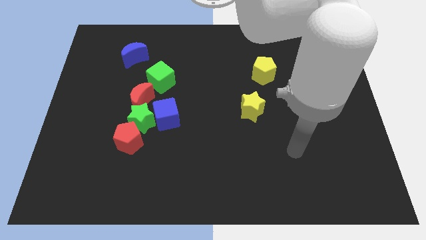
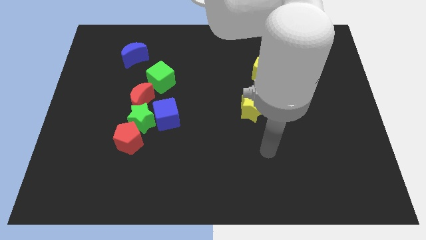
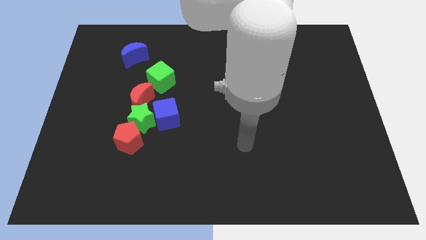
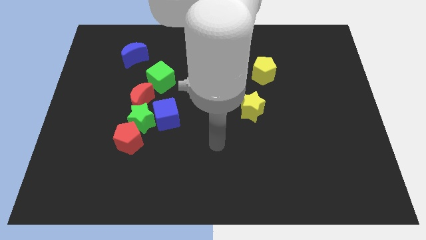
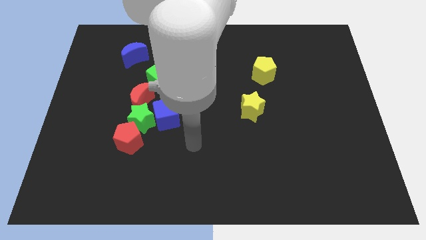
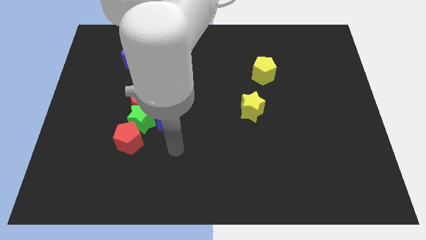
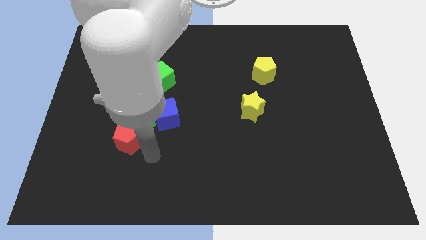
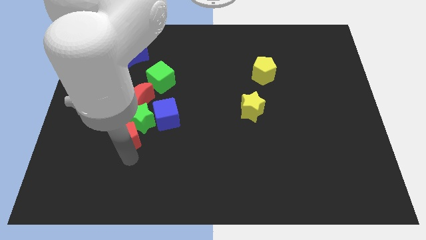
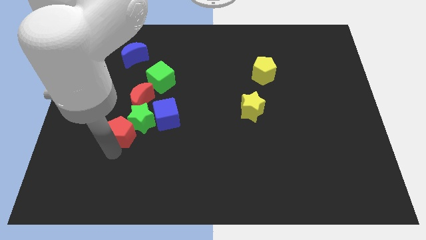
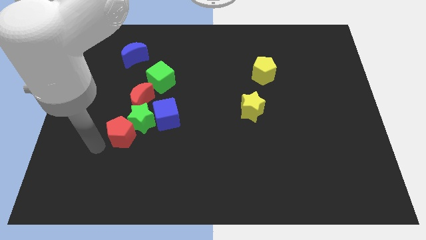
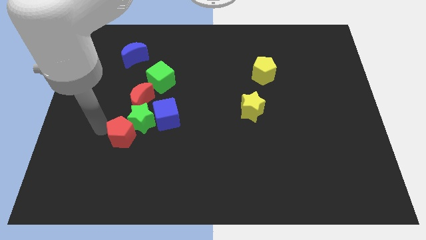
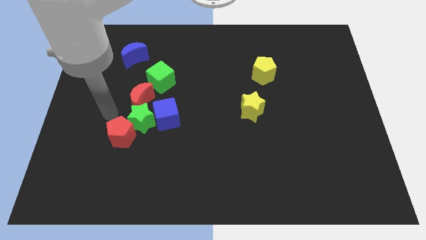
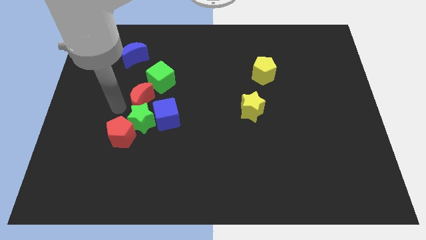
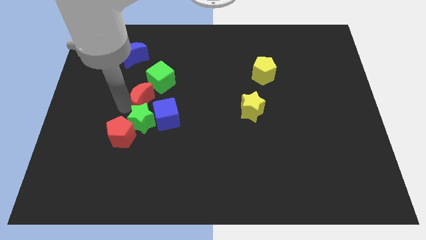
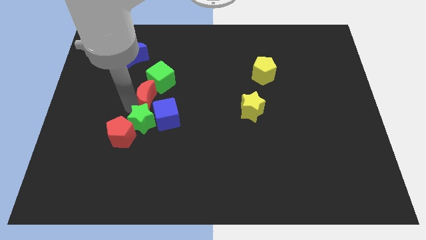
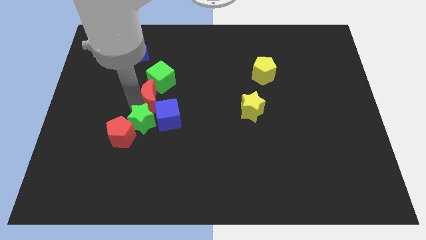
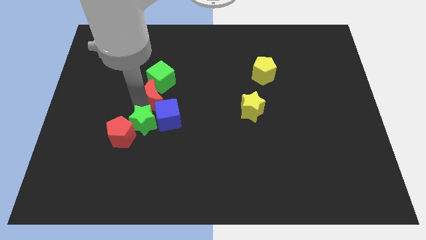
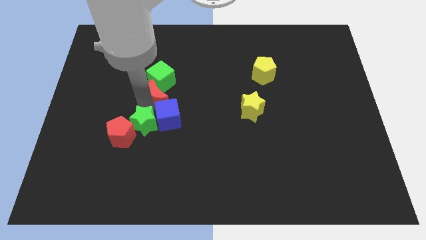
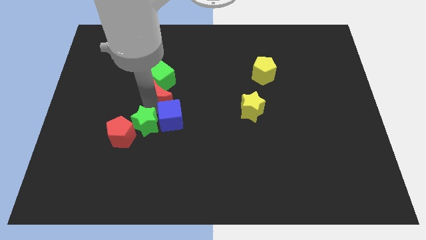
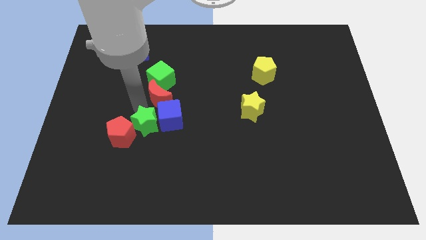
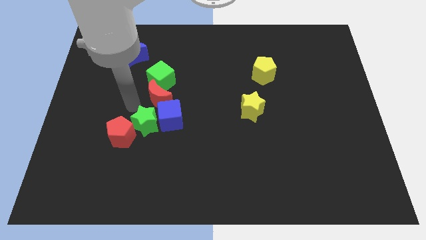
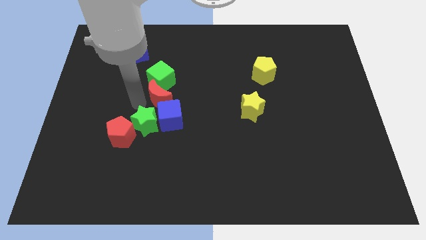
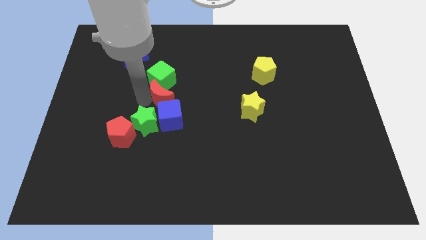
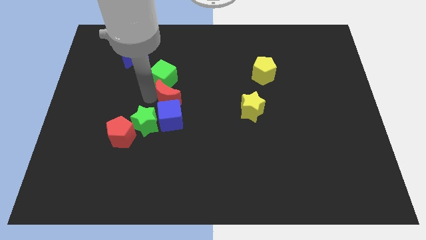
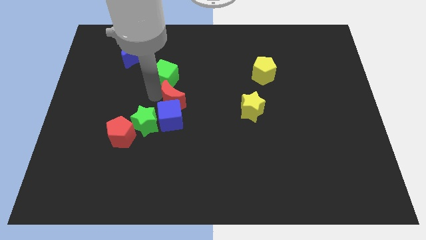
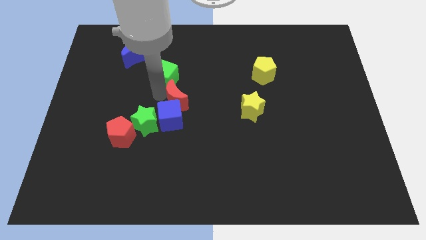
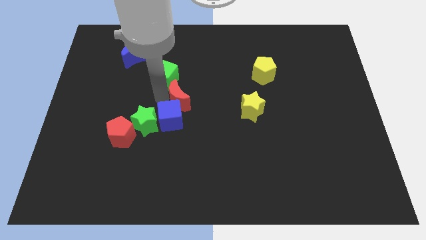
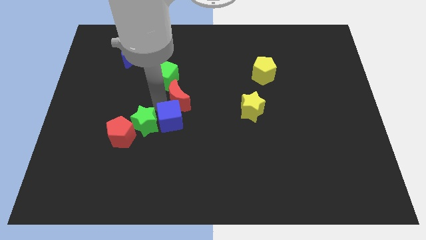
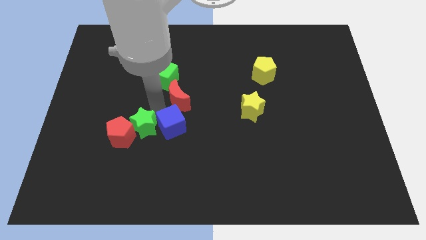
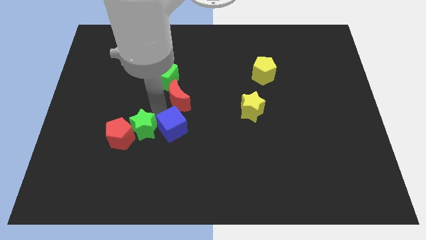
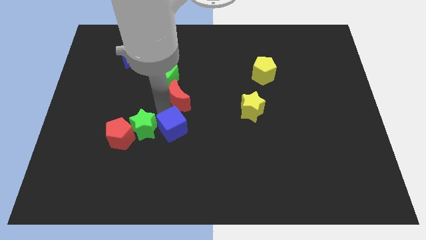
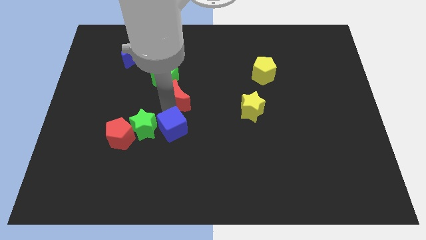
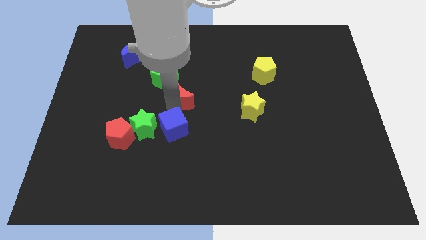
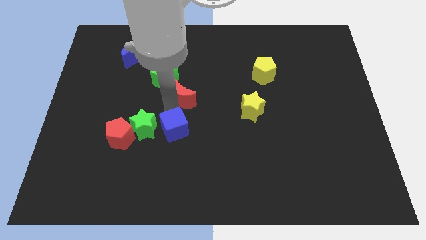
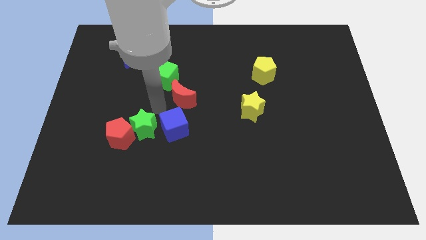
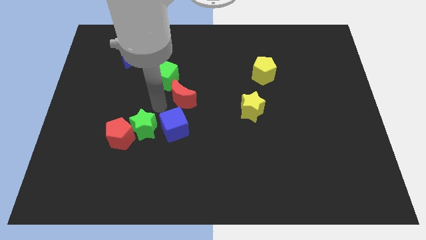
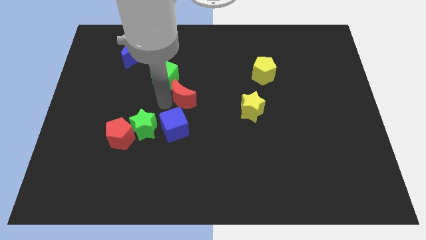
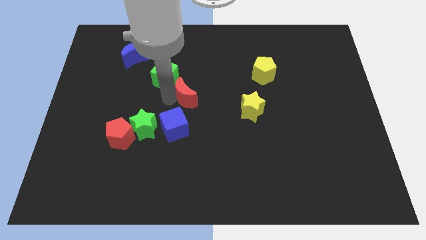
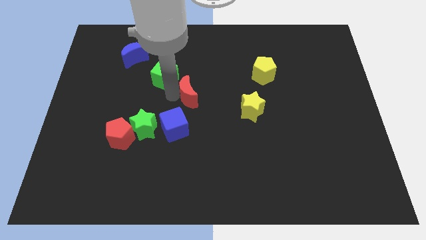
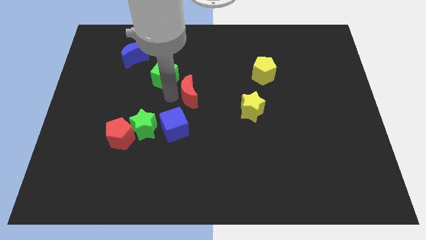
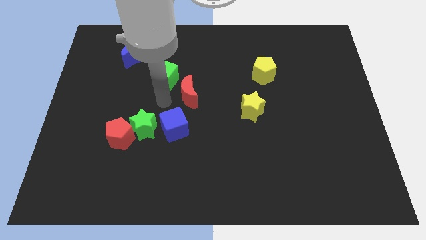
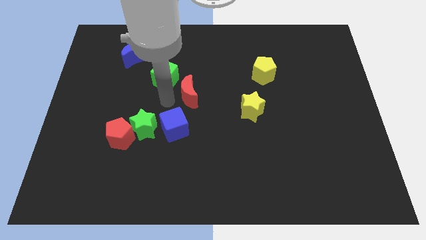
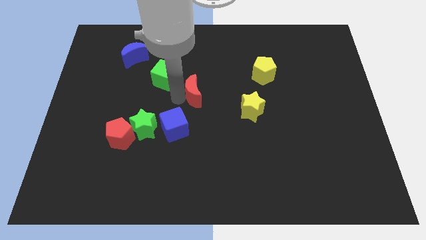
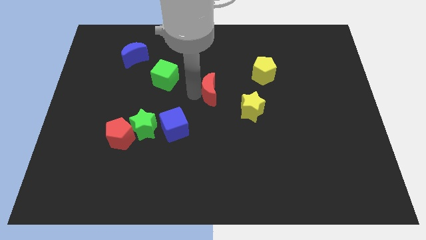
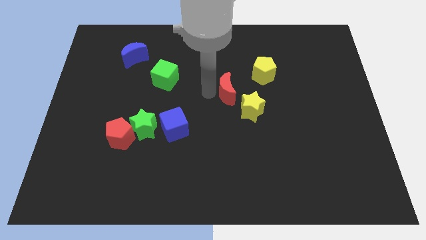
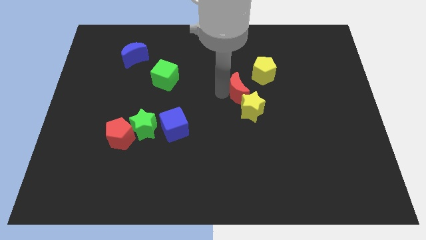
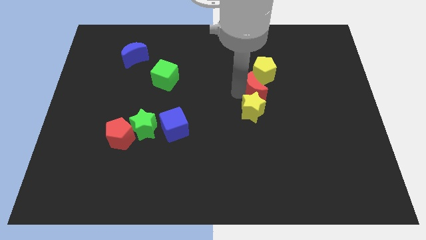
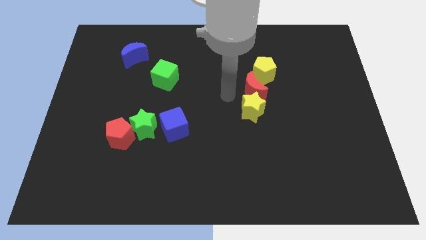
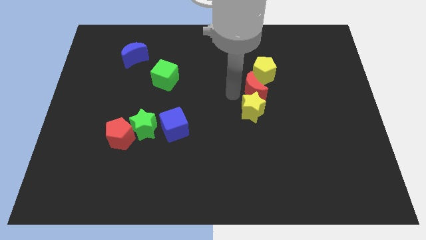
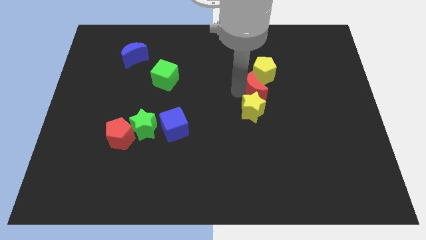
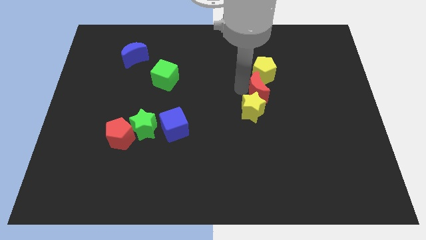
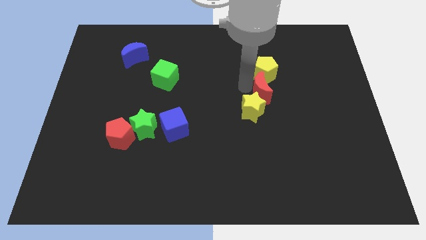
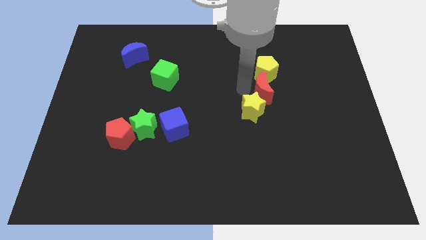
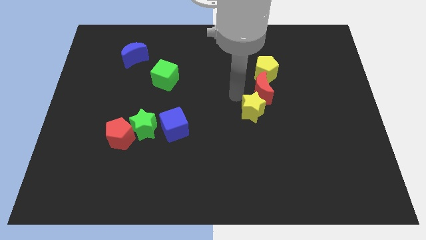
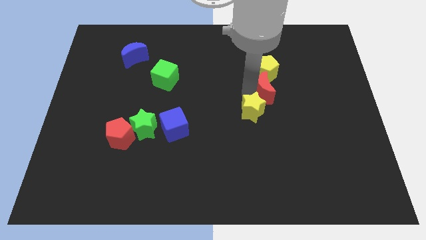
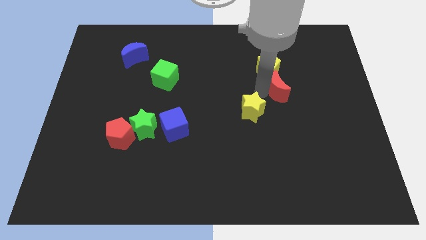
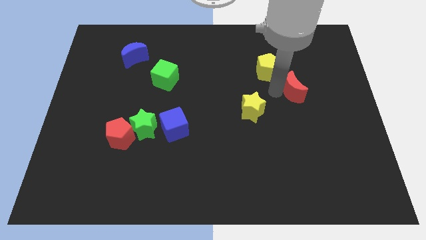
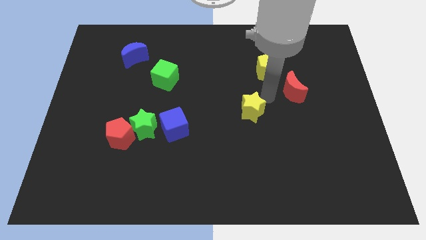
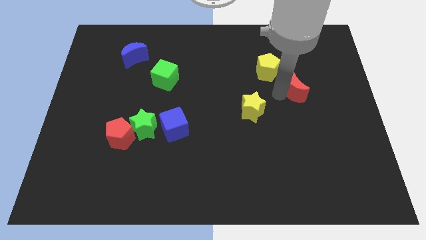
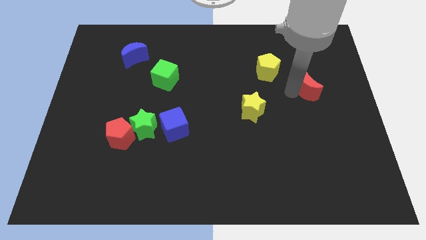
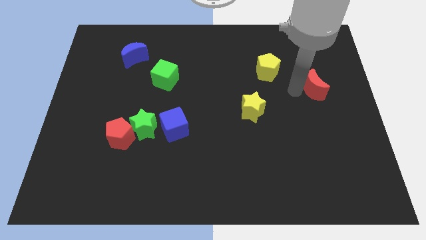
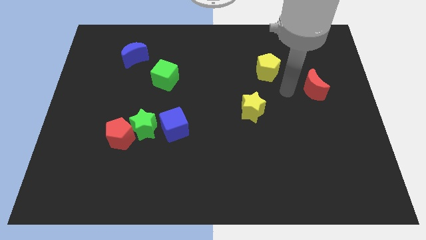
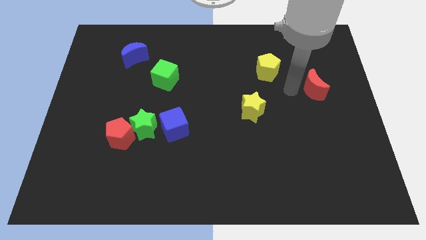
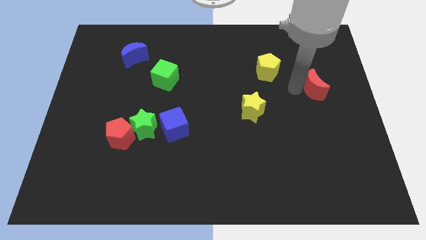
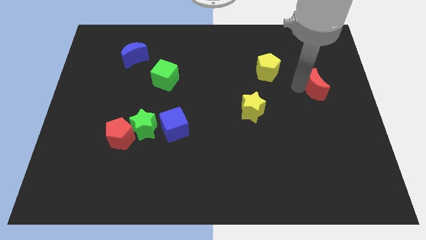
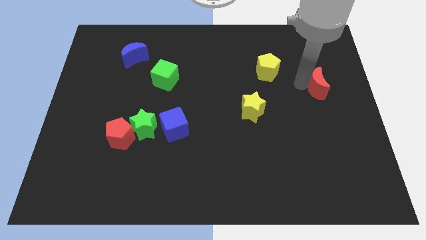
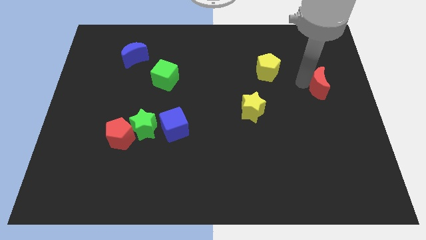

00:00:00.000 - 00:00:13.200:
slide the red moon to the right side of the board
